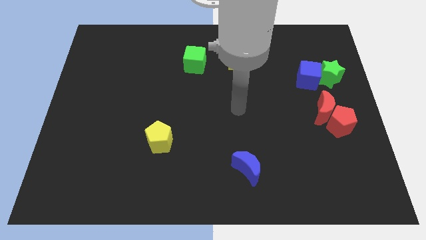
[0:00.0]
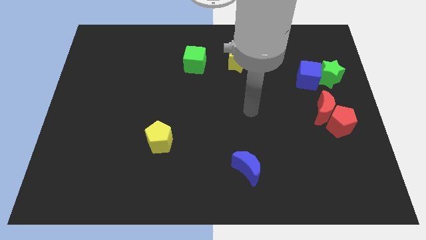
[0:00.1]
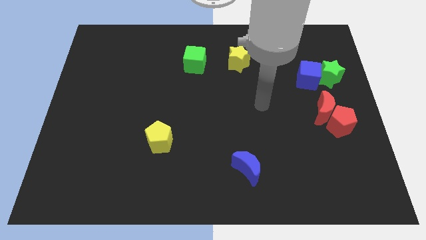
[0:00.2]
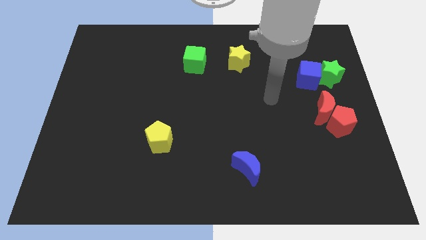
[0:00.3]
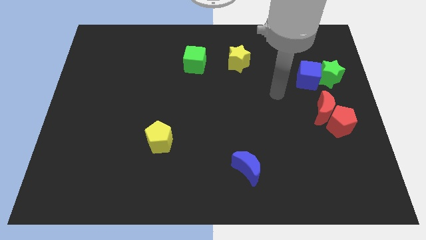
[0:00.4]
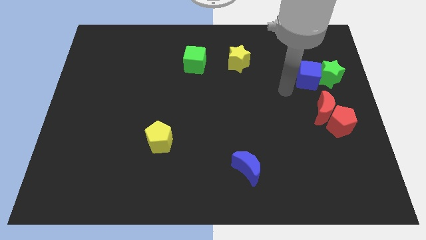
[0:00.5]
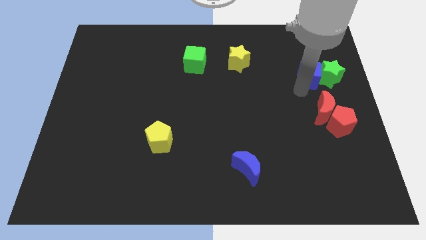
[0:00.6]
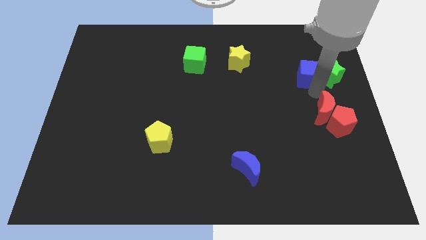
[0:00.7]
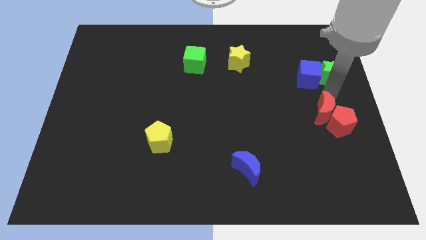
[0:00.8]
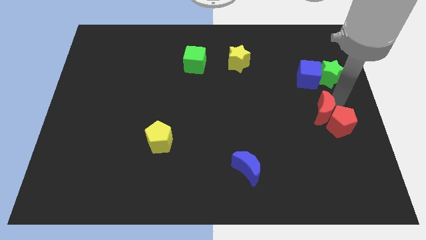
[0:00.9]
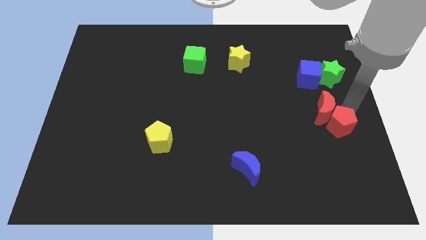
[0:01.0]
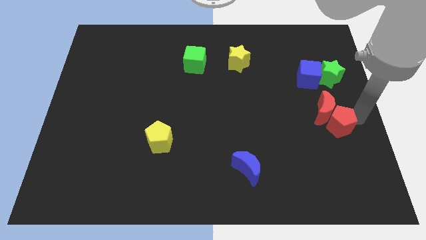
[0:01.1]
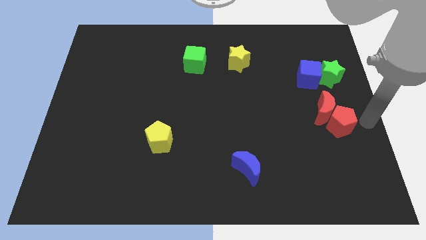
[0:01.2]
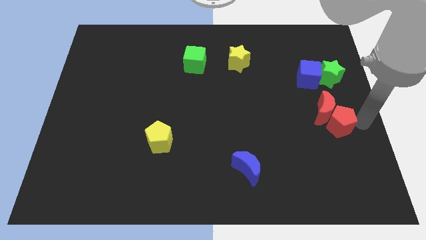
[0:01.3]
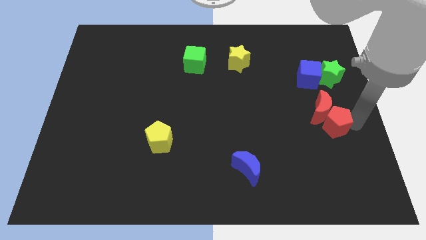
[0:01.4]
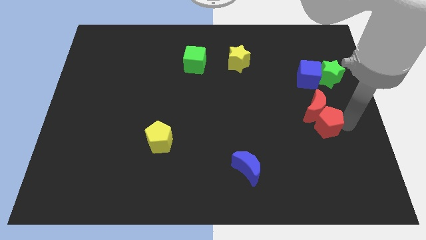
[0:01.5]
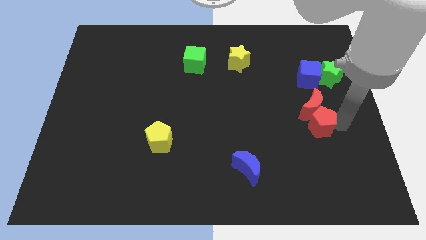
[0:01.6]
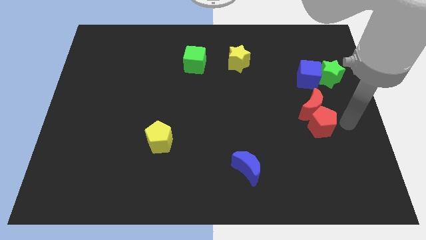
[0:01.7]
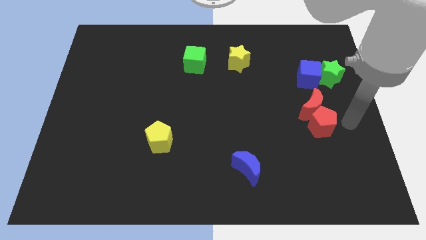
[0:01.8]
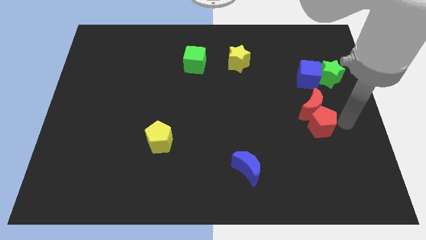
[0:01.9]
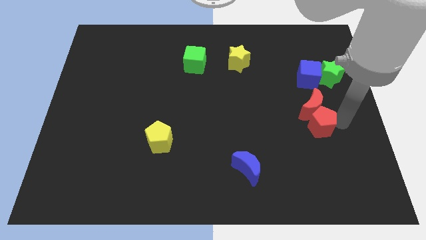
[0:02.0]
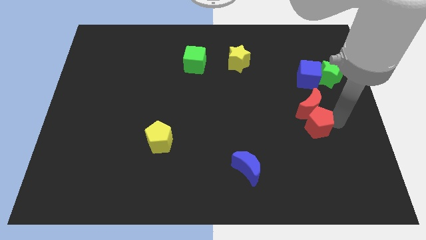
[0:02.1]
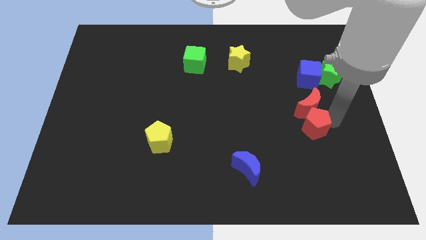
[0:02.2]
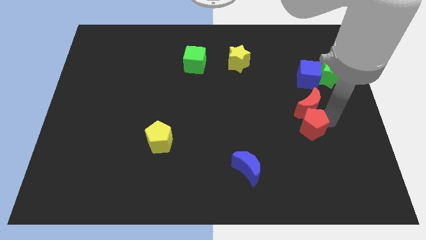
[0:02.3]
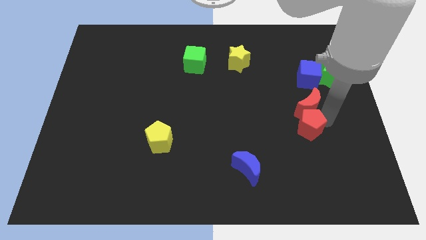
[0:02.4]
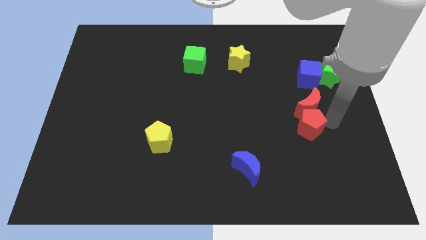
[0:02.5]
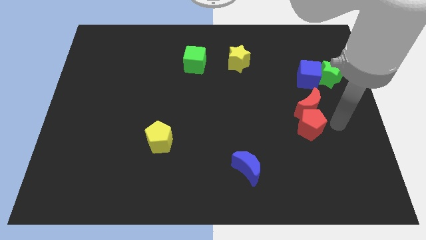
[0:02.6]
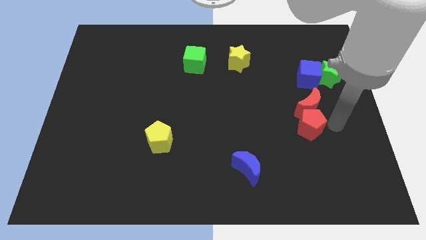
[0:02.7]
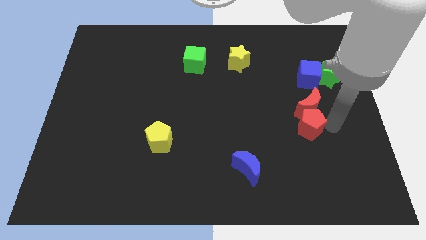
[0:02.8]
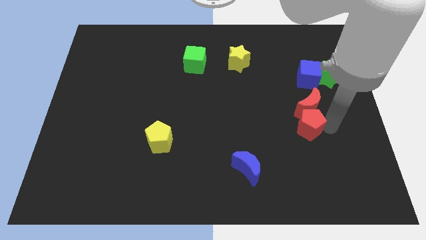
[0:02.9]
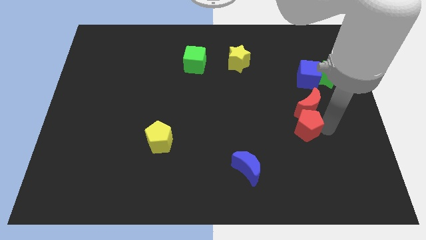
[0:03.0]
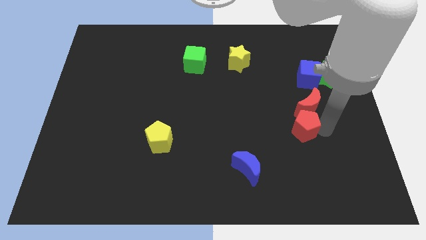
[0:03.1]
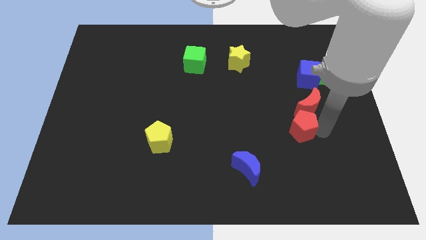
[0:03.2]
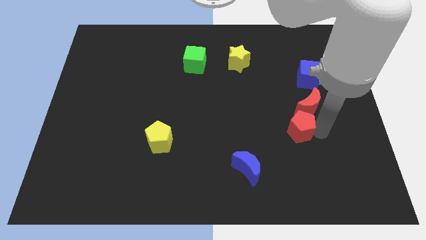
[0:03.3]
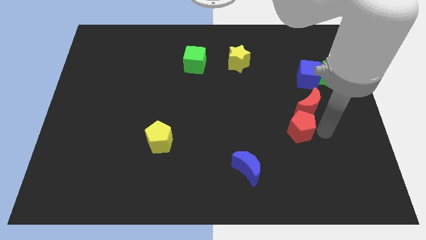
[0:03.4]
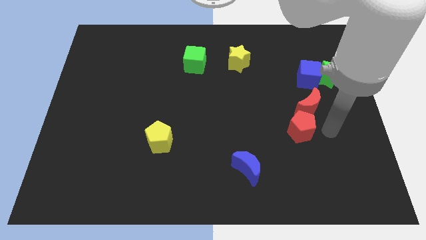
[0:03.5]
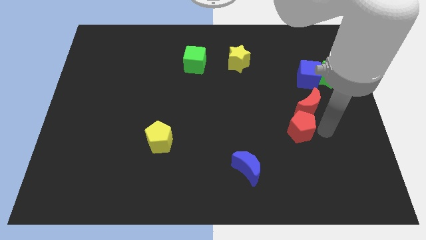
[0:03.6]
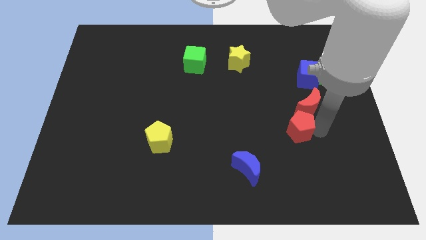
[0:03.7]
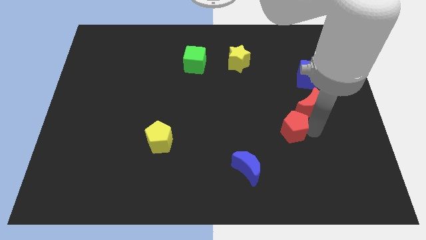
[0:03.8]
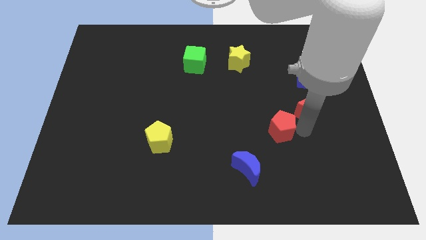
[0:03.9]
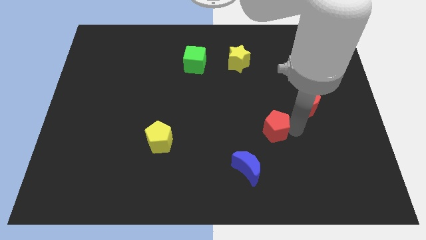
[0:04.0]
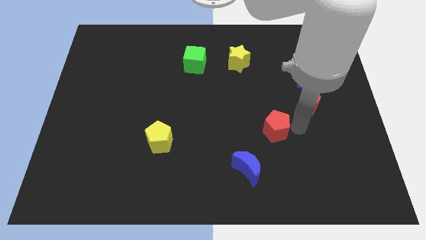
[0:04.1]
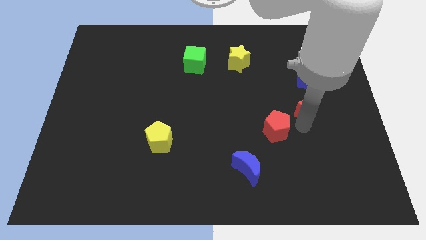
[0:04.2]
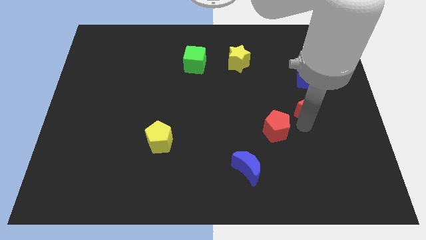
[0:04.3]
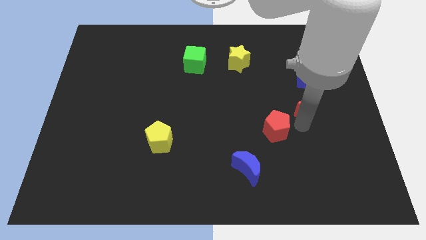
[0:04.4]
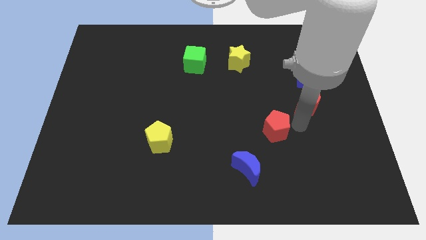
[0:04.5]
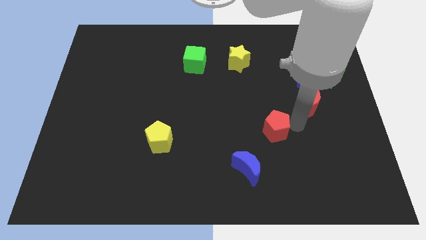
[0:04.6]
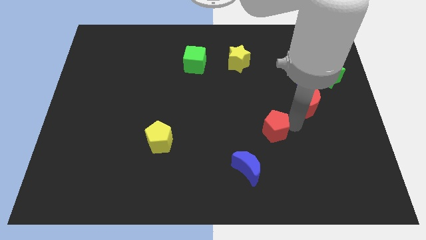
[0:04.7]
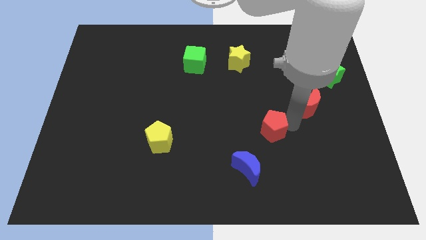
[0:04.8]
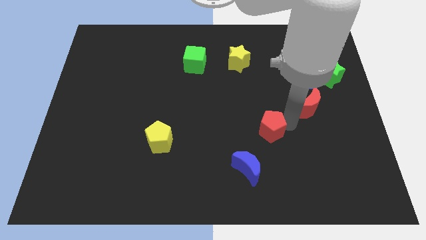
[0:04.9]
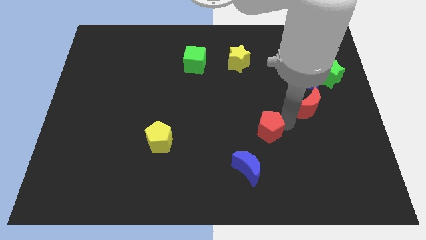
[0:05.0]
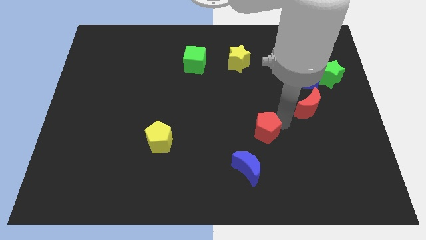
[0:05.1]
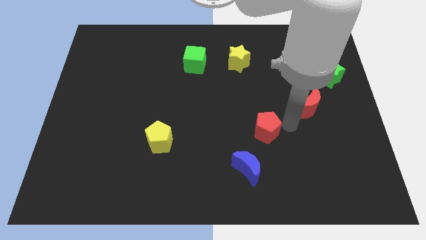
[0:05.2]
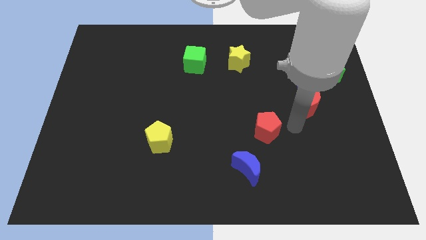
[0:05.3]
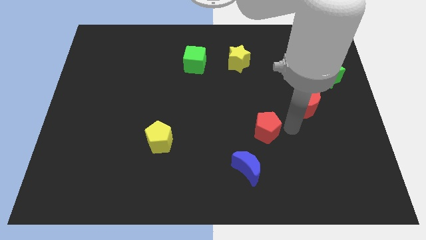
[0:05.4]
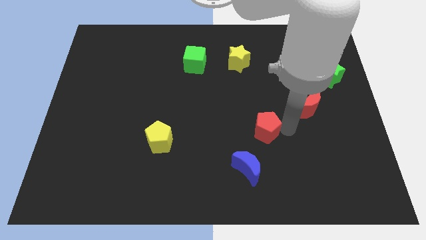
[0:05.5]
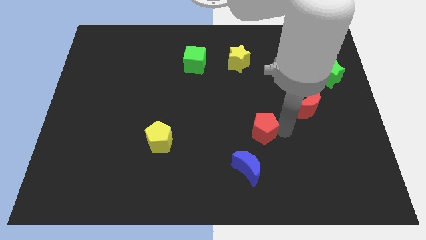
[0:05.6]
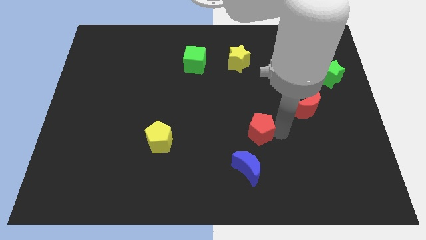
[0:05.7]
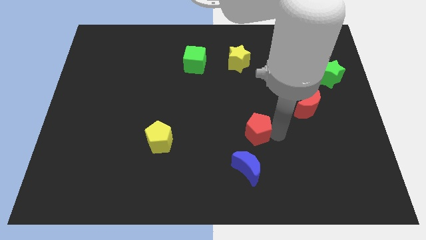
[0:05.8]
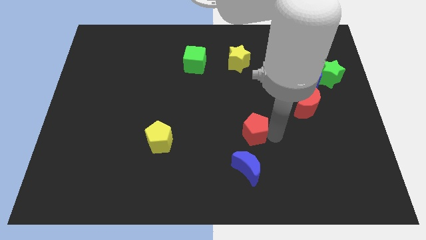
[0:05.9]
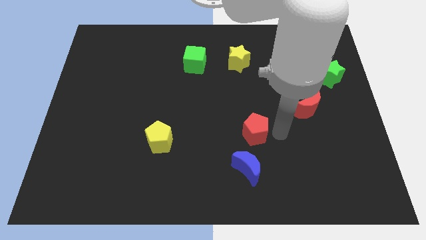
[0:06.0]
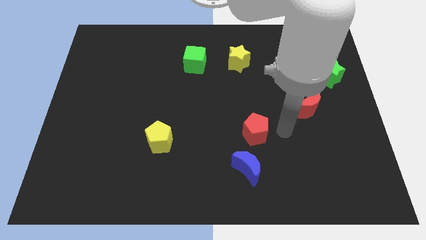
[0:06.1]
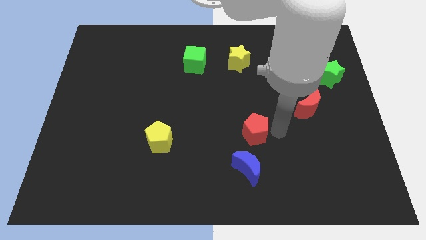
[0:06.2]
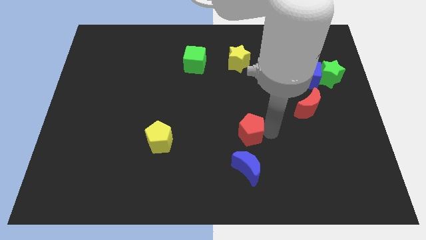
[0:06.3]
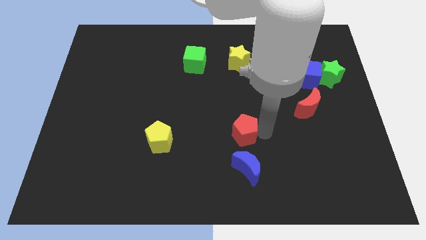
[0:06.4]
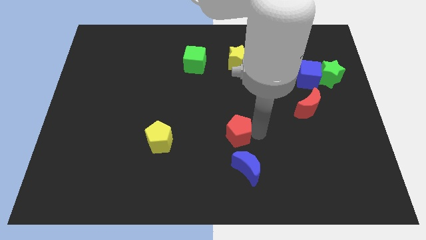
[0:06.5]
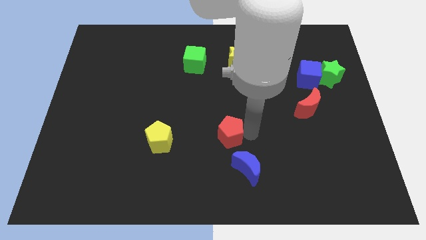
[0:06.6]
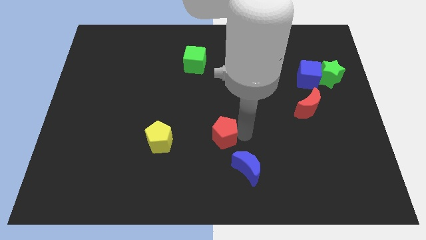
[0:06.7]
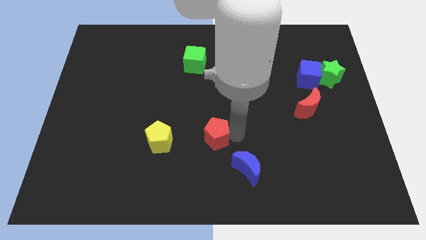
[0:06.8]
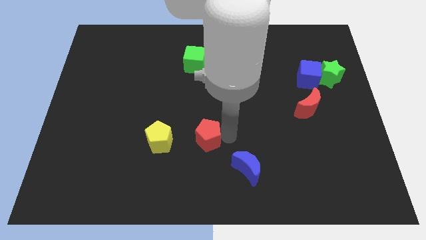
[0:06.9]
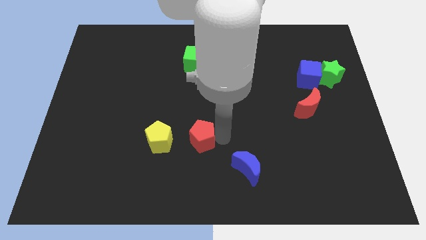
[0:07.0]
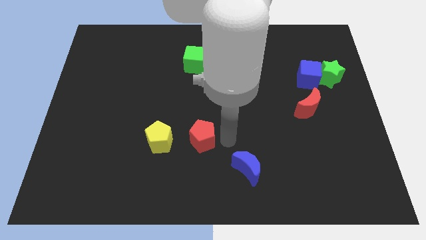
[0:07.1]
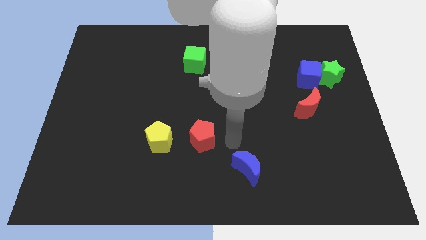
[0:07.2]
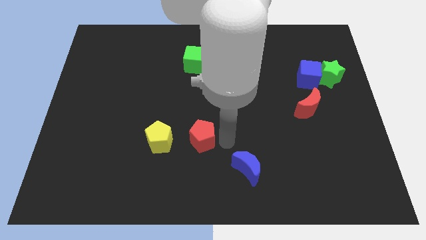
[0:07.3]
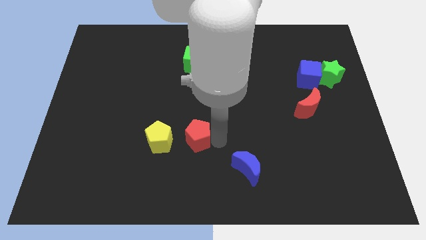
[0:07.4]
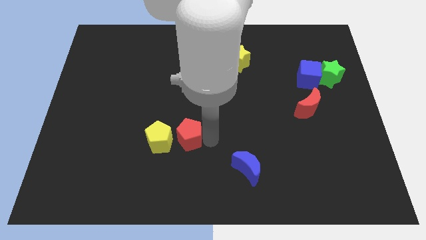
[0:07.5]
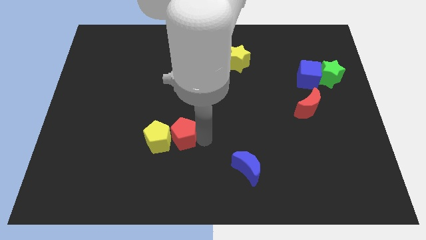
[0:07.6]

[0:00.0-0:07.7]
put the red pentagon close to the yellow pentagon

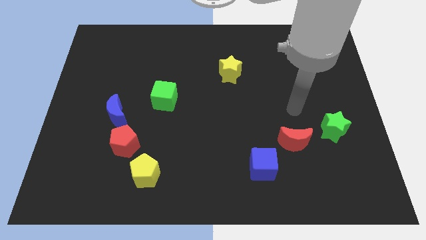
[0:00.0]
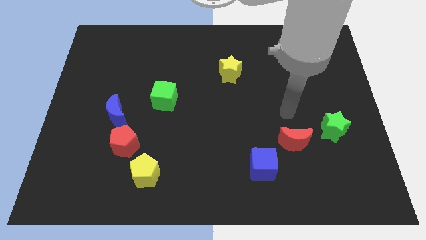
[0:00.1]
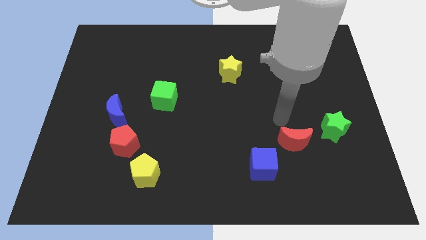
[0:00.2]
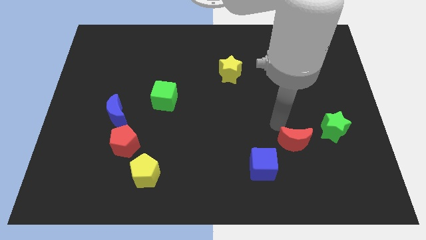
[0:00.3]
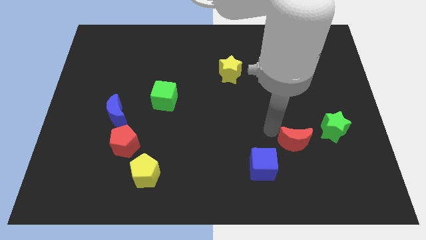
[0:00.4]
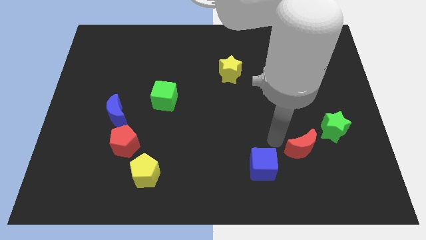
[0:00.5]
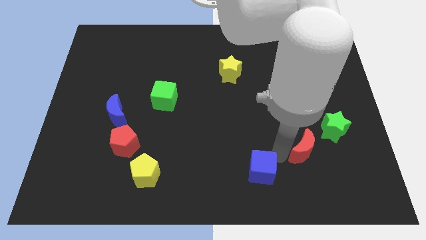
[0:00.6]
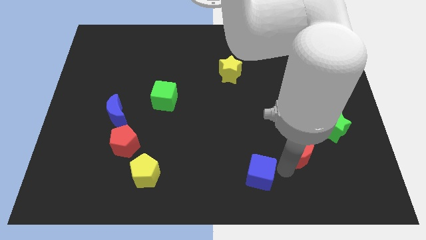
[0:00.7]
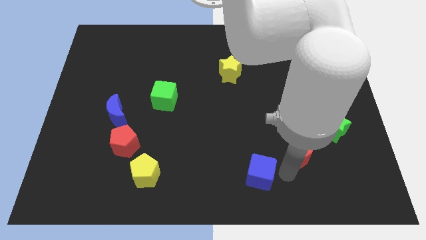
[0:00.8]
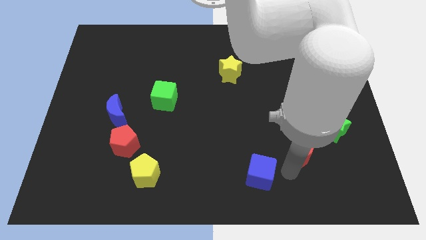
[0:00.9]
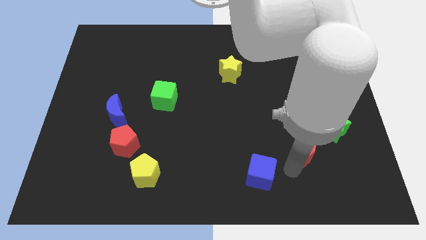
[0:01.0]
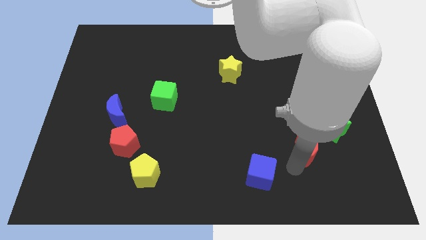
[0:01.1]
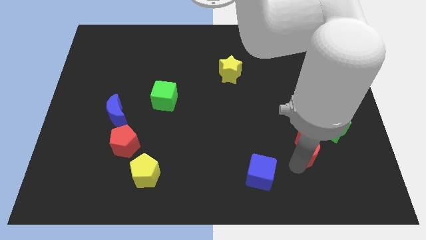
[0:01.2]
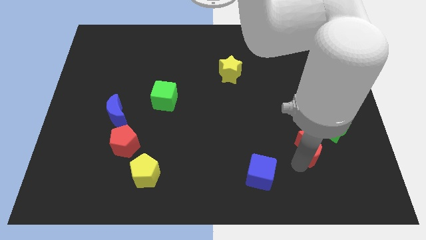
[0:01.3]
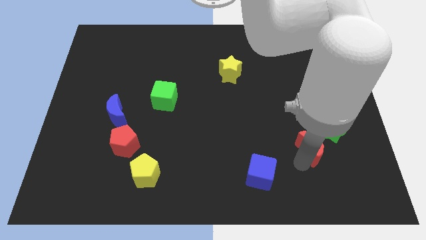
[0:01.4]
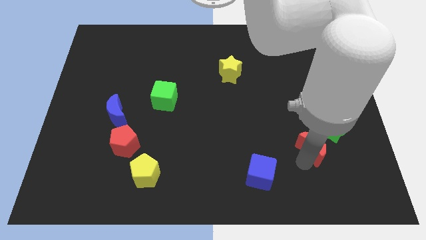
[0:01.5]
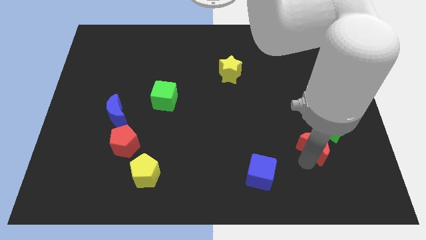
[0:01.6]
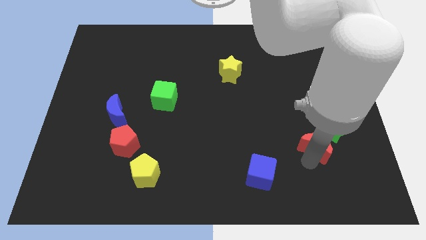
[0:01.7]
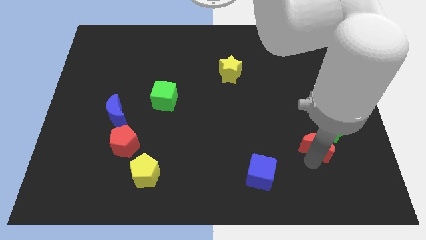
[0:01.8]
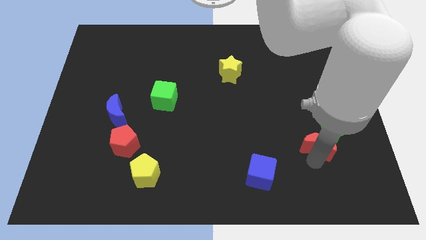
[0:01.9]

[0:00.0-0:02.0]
slide the red moon to the green star
